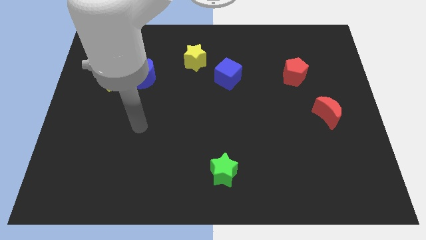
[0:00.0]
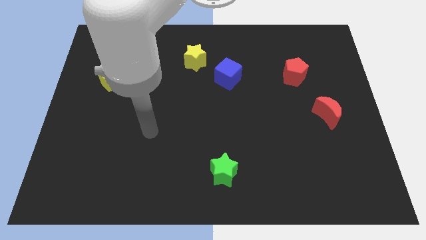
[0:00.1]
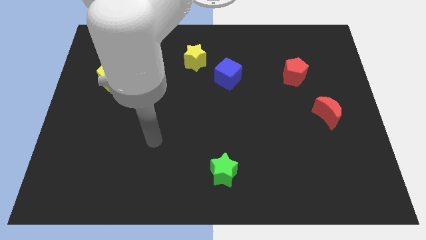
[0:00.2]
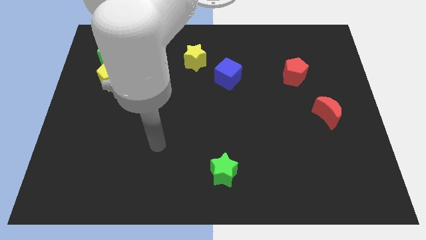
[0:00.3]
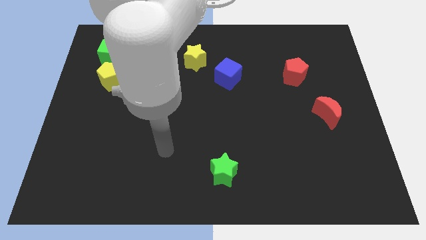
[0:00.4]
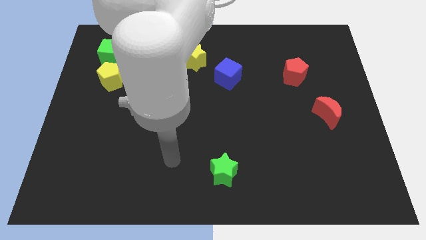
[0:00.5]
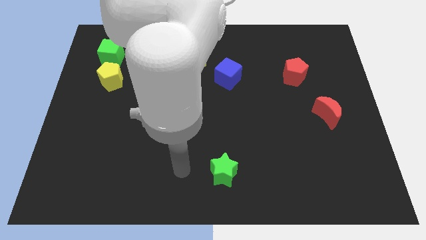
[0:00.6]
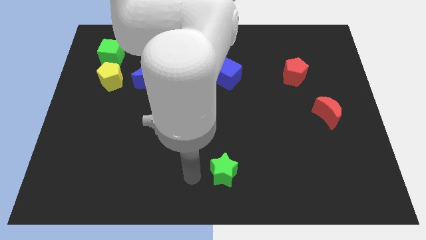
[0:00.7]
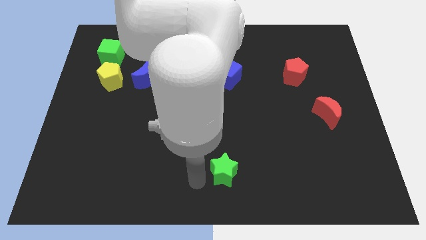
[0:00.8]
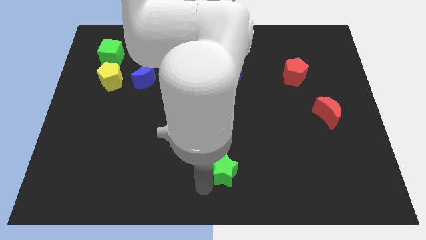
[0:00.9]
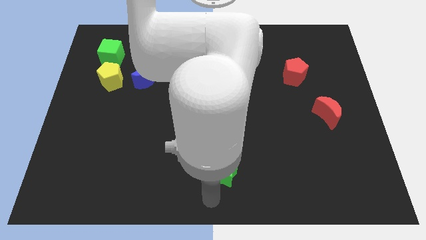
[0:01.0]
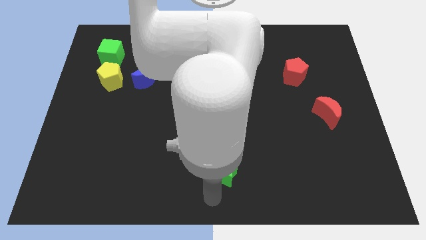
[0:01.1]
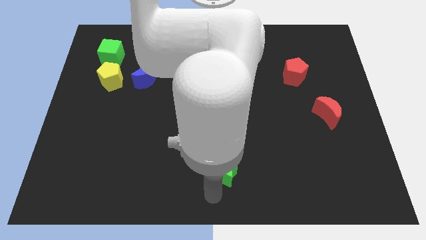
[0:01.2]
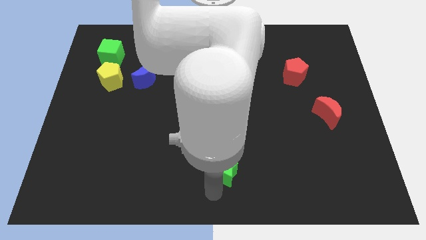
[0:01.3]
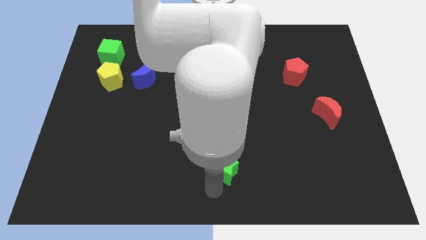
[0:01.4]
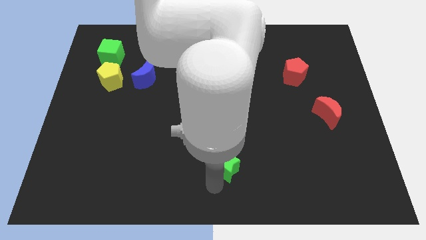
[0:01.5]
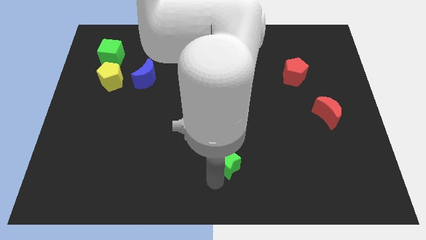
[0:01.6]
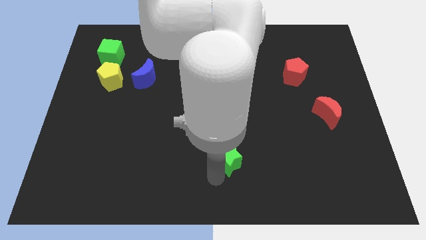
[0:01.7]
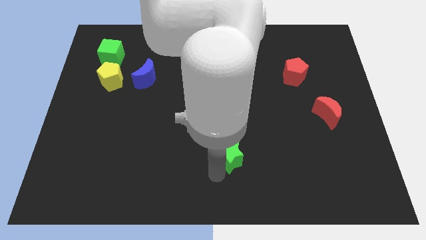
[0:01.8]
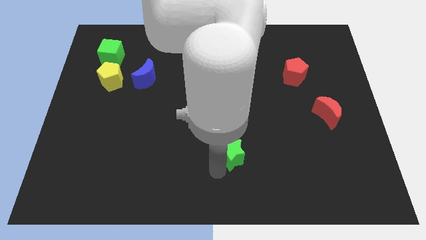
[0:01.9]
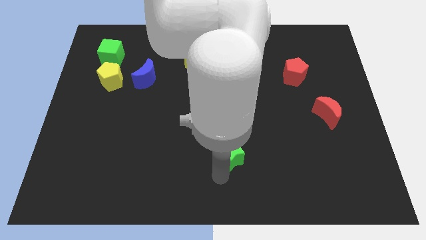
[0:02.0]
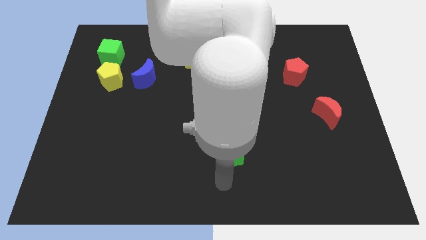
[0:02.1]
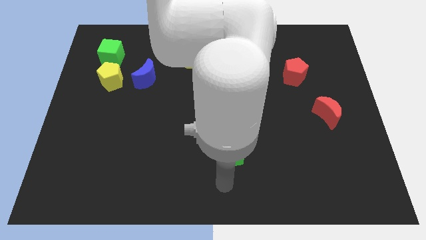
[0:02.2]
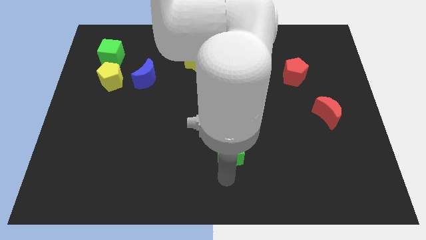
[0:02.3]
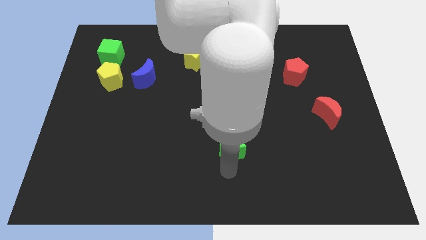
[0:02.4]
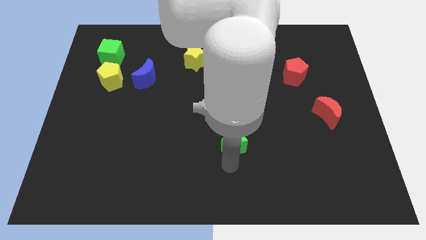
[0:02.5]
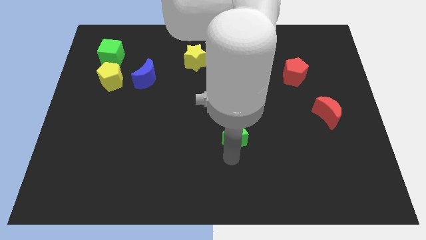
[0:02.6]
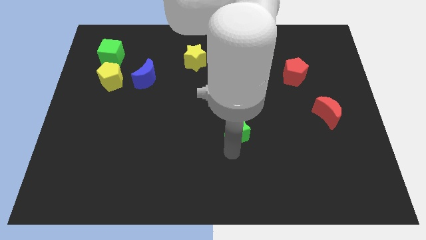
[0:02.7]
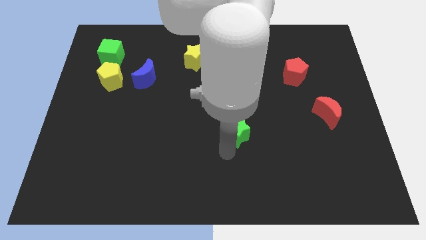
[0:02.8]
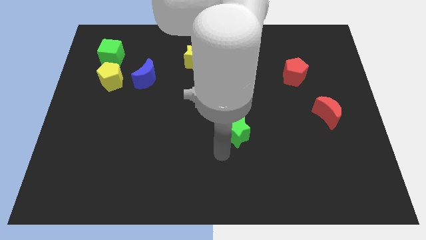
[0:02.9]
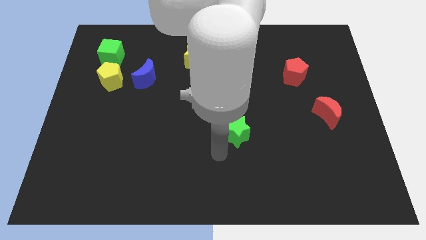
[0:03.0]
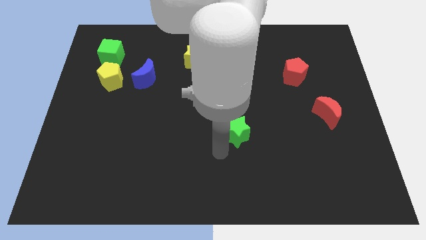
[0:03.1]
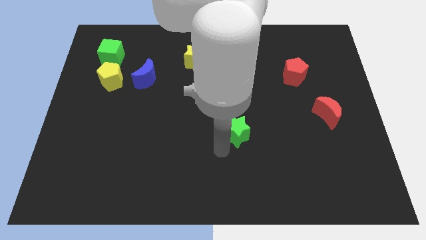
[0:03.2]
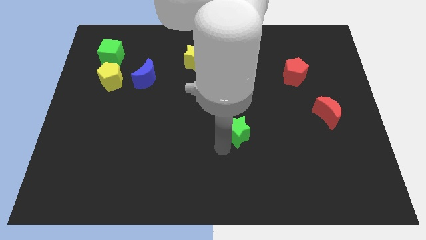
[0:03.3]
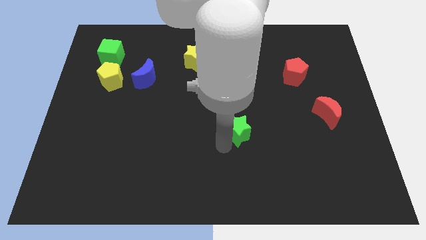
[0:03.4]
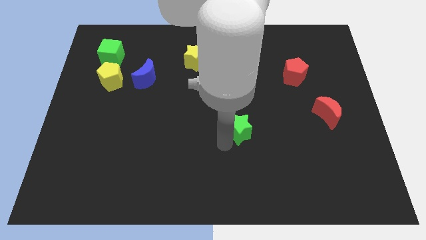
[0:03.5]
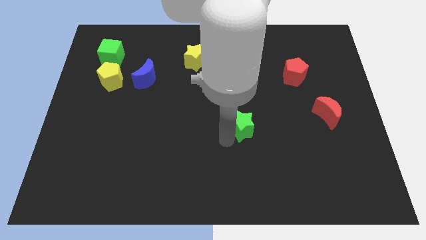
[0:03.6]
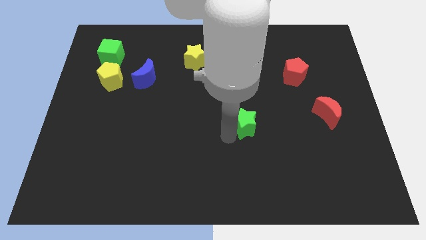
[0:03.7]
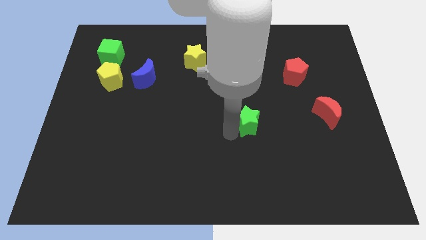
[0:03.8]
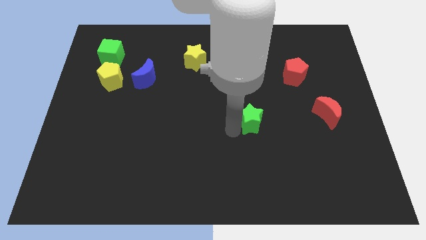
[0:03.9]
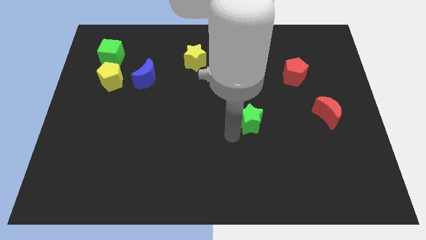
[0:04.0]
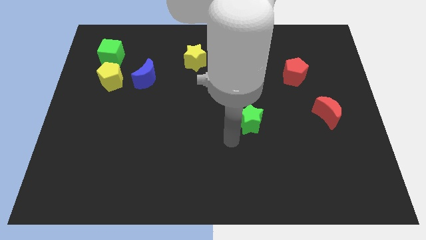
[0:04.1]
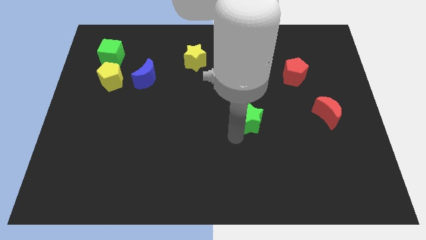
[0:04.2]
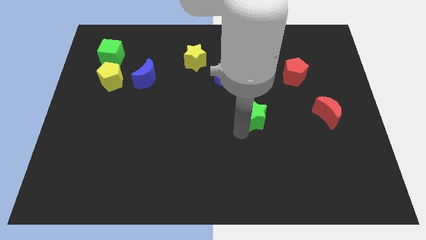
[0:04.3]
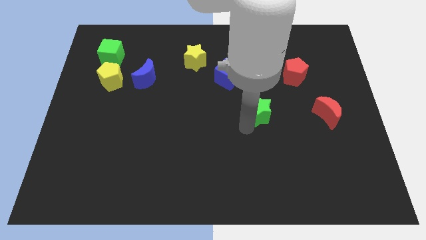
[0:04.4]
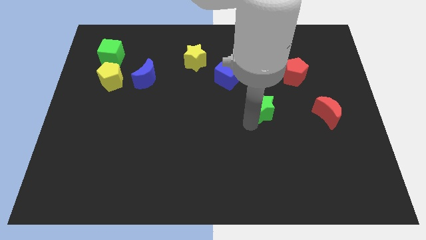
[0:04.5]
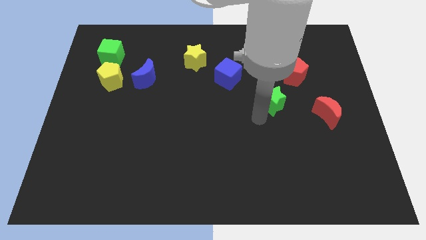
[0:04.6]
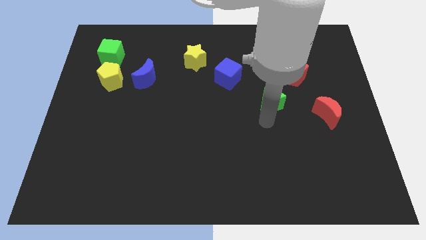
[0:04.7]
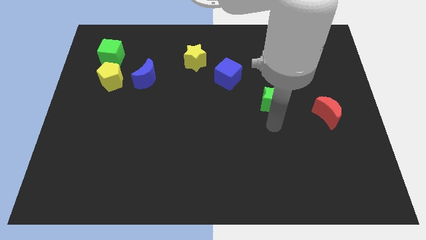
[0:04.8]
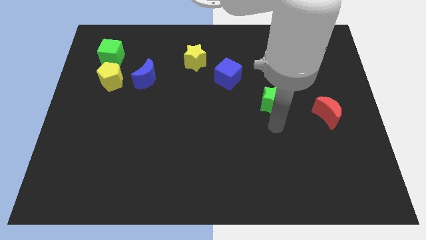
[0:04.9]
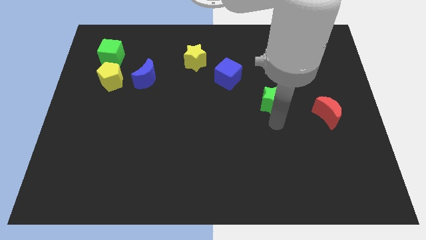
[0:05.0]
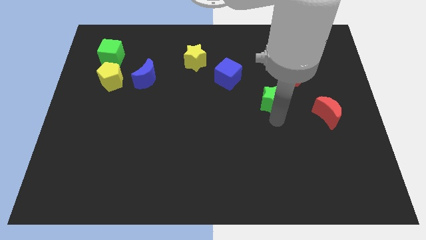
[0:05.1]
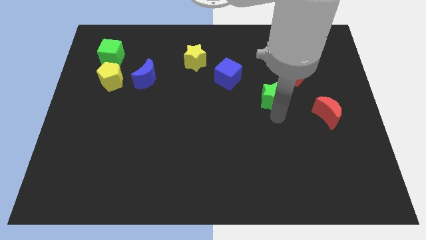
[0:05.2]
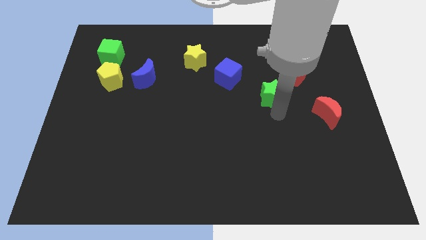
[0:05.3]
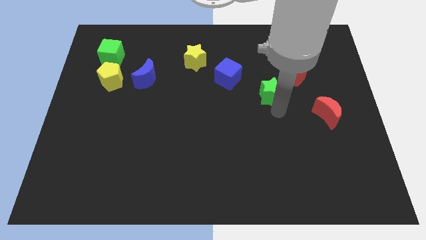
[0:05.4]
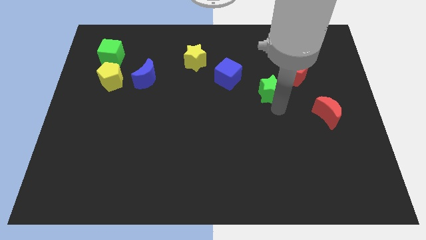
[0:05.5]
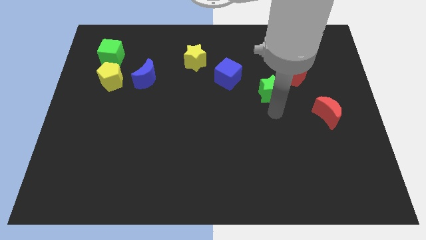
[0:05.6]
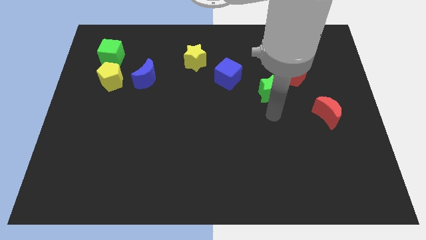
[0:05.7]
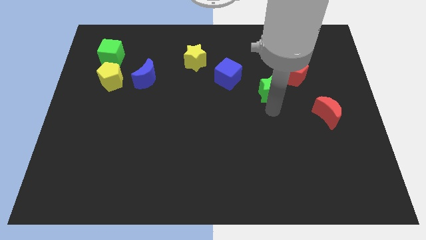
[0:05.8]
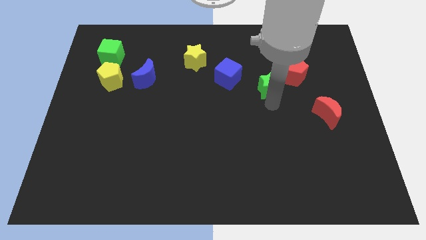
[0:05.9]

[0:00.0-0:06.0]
push the green star just right of the blue cube

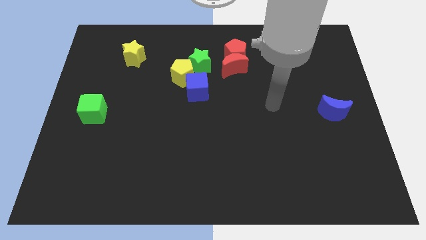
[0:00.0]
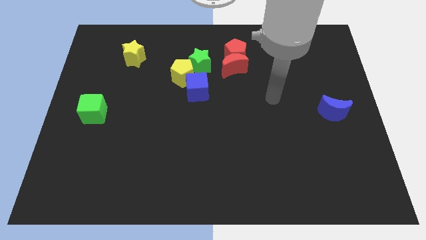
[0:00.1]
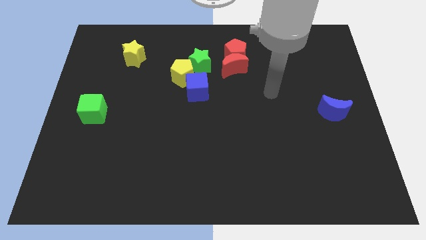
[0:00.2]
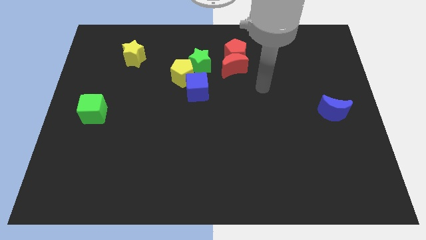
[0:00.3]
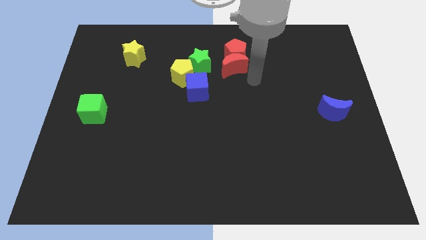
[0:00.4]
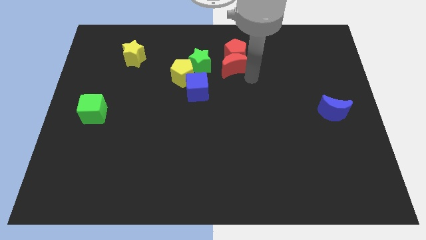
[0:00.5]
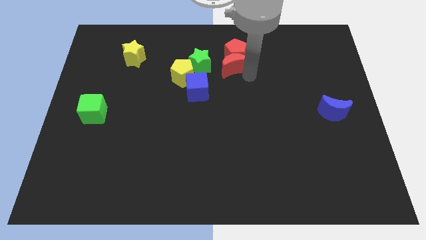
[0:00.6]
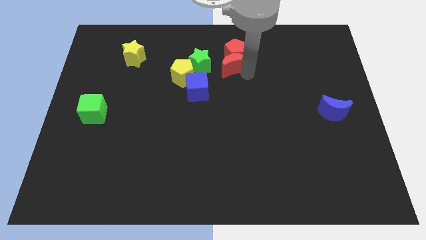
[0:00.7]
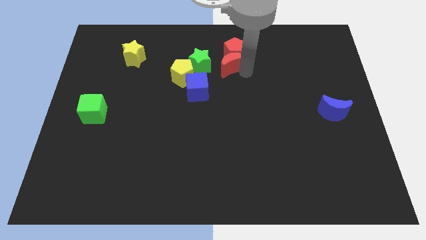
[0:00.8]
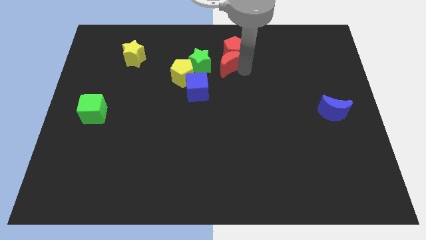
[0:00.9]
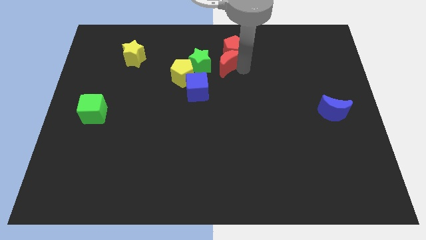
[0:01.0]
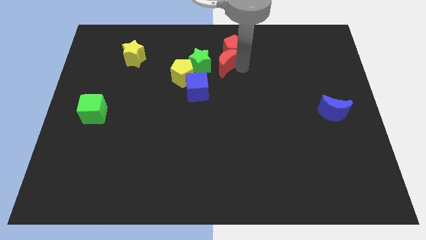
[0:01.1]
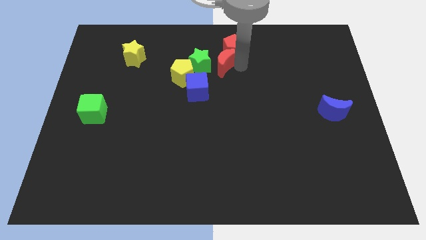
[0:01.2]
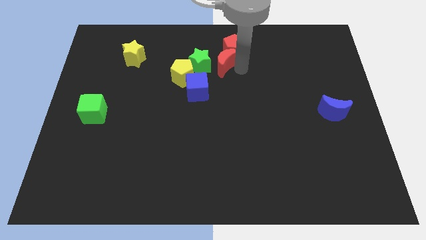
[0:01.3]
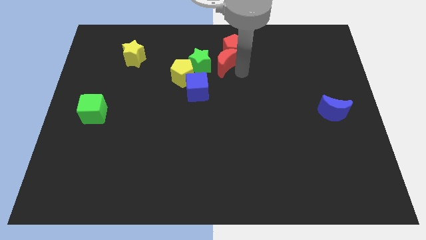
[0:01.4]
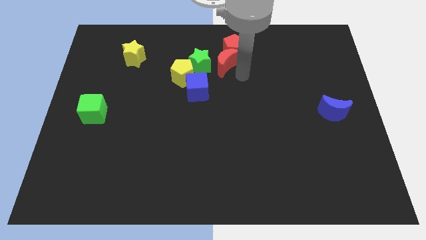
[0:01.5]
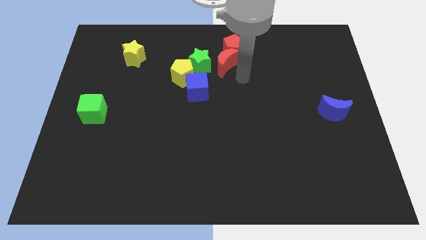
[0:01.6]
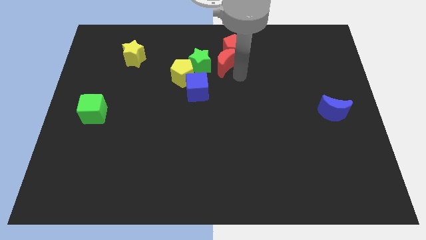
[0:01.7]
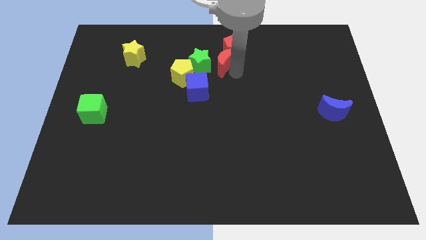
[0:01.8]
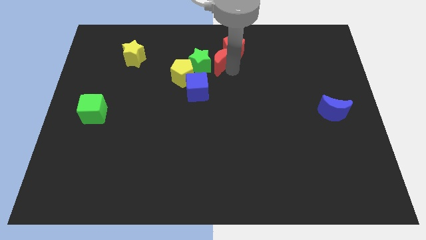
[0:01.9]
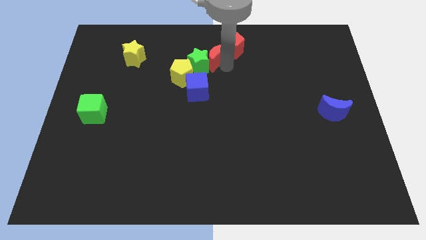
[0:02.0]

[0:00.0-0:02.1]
slide the red moon to the left of the red pentagon
